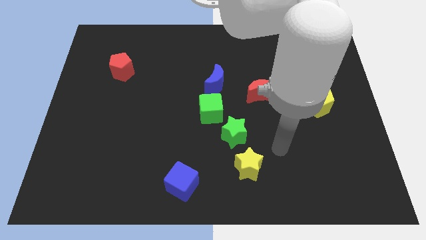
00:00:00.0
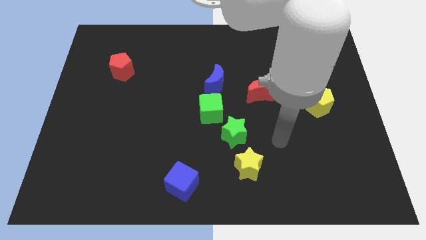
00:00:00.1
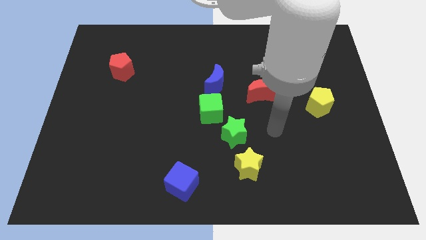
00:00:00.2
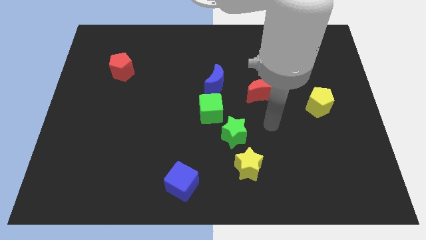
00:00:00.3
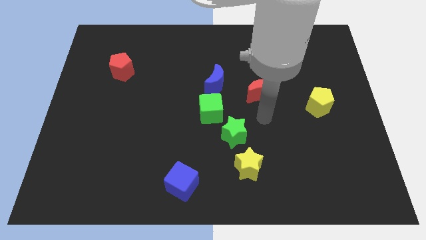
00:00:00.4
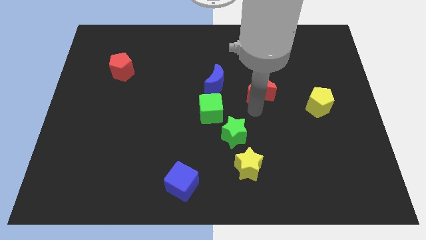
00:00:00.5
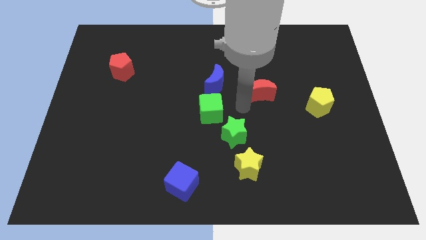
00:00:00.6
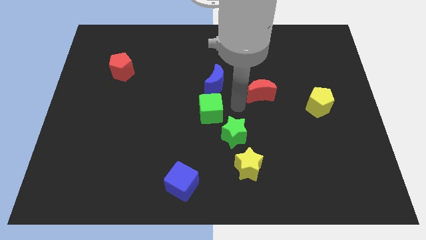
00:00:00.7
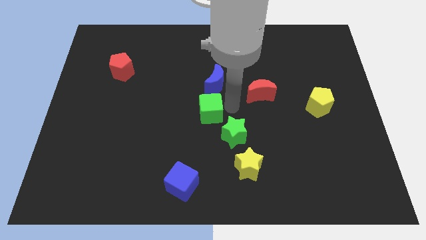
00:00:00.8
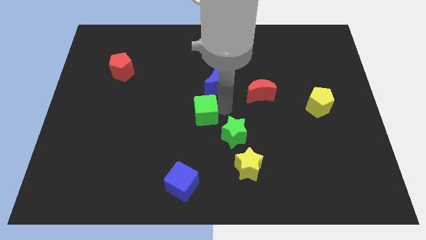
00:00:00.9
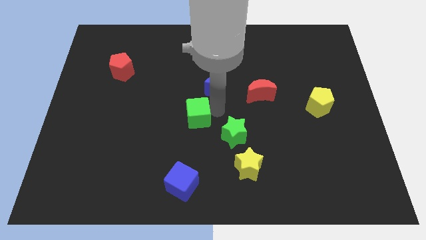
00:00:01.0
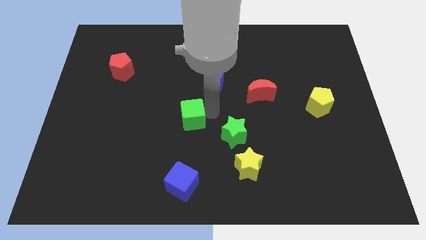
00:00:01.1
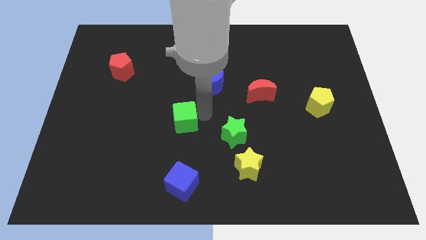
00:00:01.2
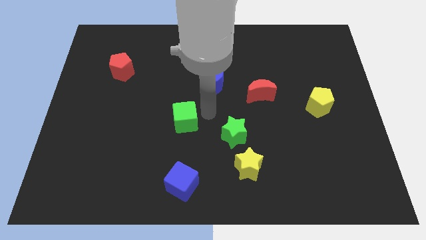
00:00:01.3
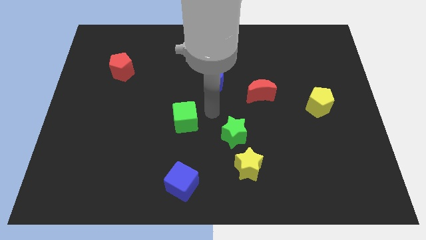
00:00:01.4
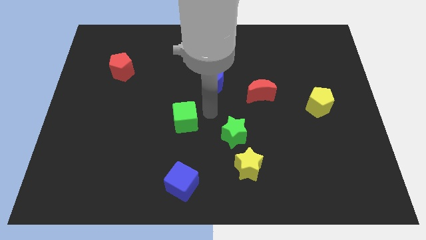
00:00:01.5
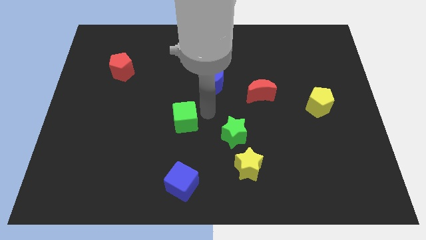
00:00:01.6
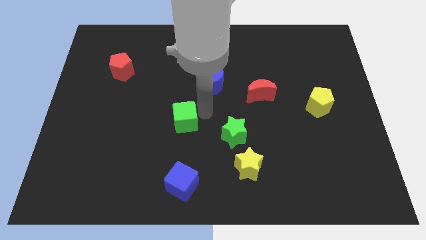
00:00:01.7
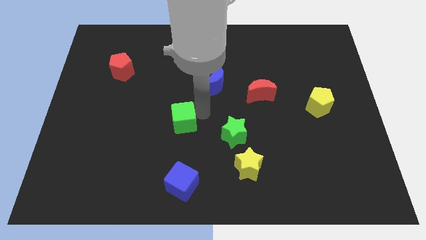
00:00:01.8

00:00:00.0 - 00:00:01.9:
move the green cube away from the green star and blue moon

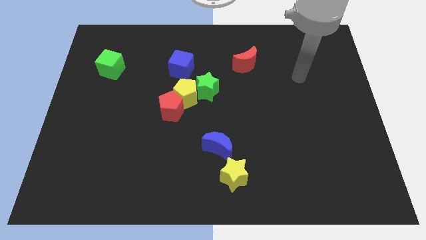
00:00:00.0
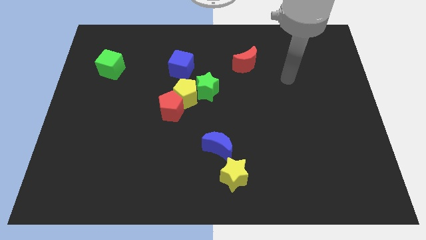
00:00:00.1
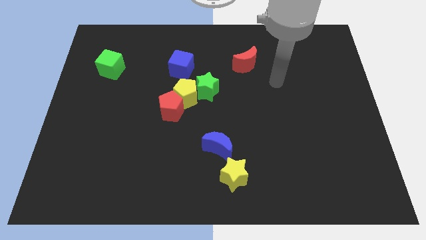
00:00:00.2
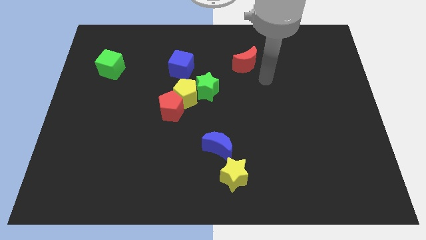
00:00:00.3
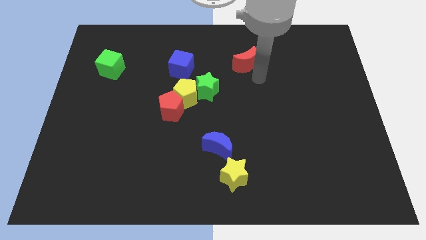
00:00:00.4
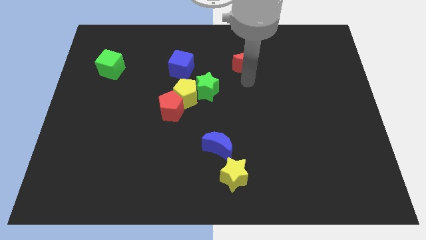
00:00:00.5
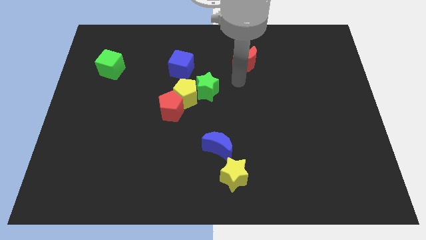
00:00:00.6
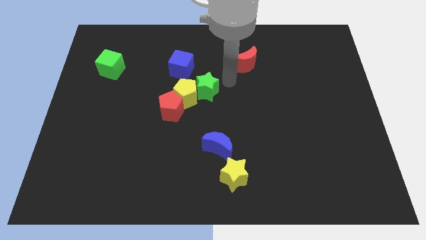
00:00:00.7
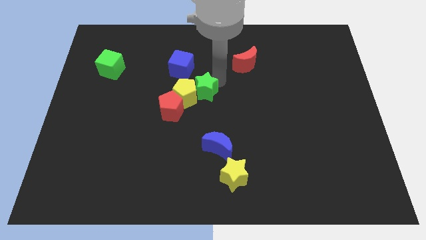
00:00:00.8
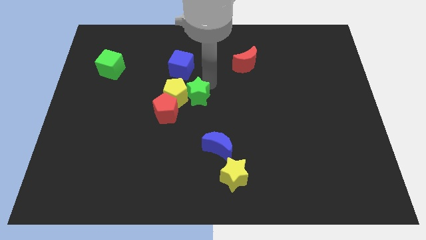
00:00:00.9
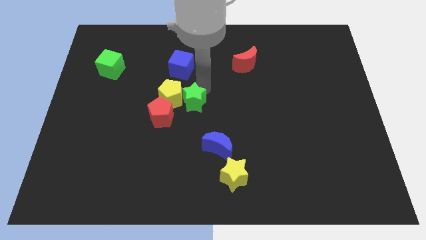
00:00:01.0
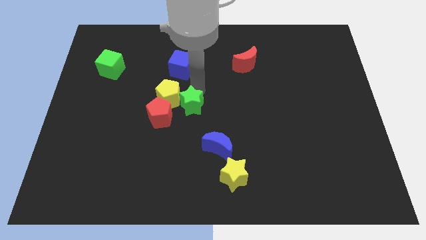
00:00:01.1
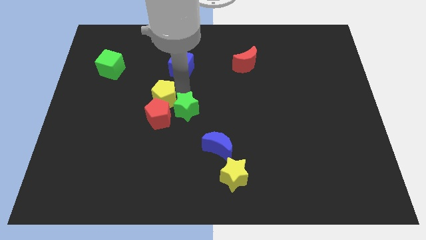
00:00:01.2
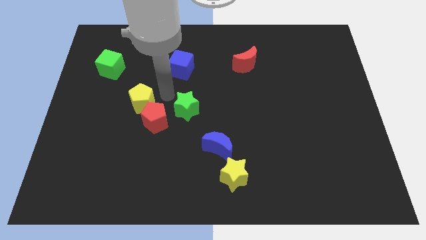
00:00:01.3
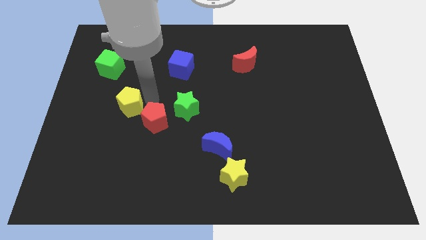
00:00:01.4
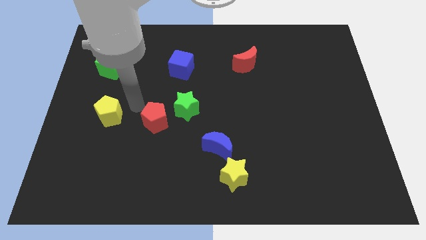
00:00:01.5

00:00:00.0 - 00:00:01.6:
separate the red pentagon from the yellow pentagon

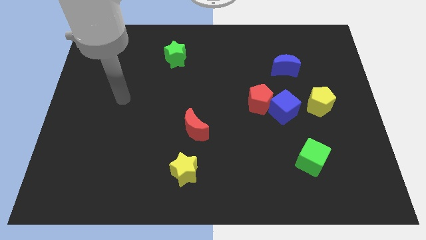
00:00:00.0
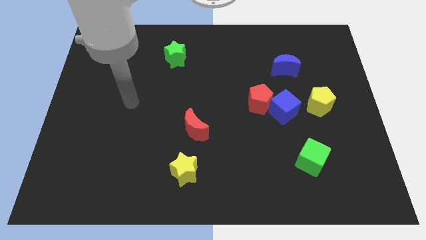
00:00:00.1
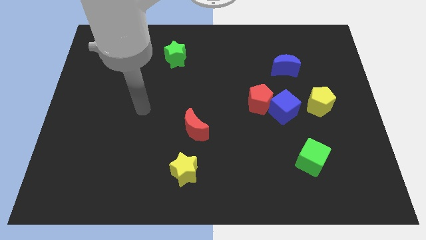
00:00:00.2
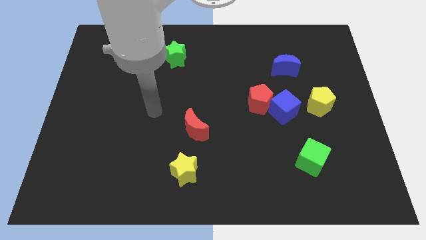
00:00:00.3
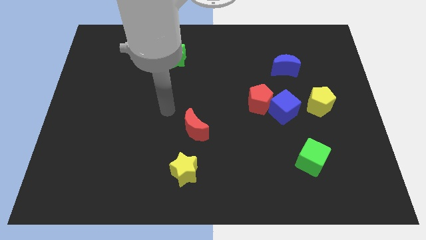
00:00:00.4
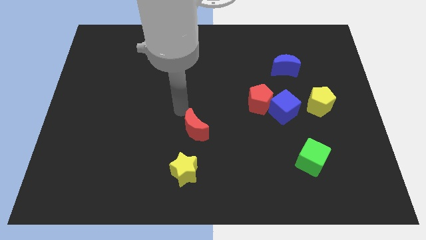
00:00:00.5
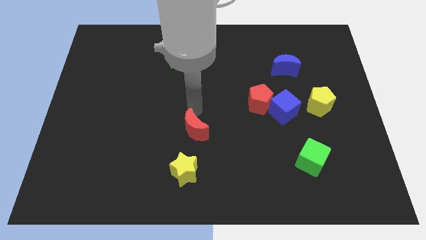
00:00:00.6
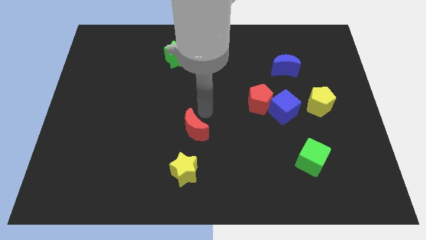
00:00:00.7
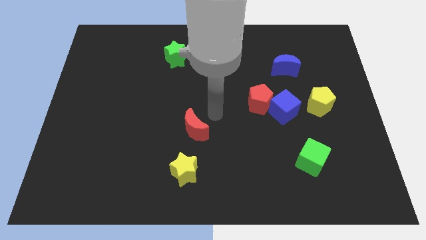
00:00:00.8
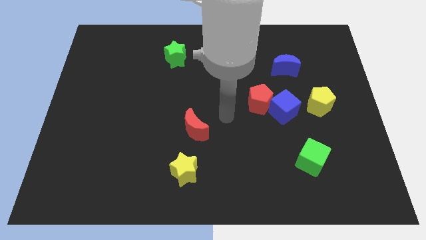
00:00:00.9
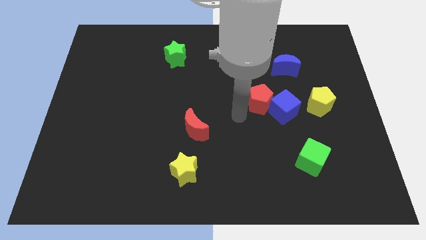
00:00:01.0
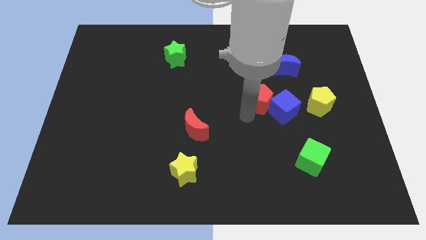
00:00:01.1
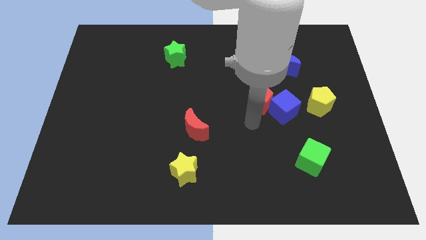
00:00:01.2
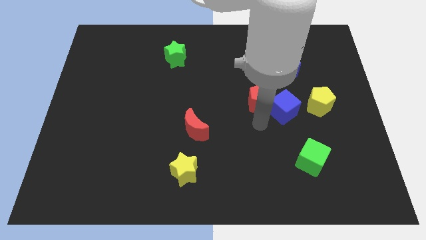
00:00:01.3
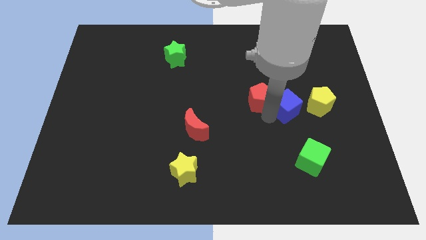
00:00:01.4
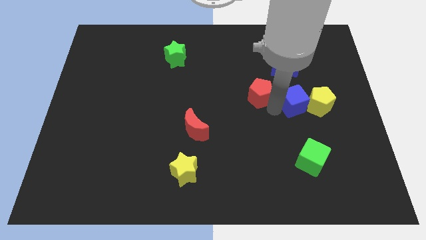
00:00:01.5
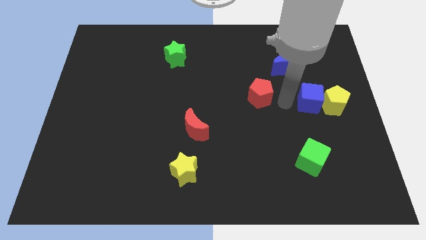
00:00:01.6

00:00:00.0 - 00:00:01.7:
separate the red pentagon from the blue cube

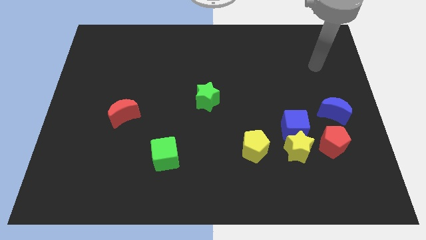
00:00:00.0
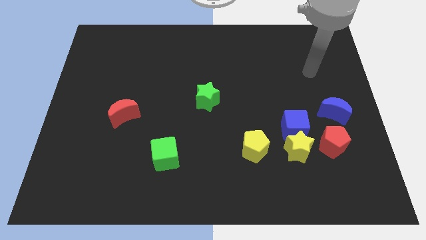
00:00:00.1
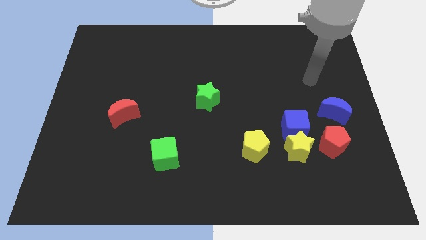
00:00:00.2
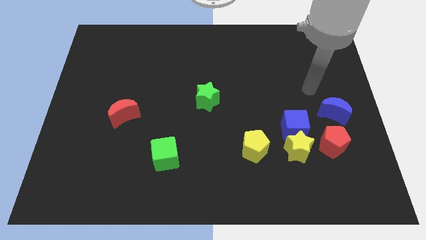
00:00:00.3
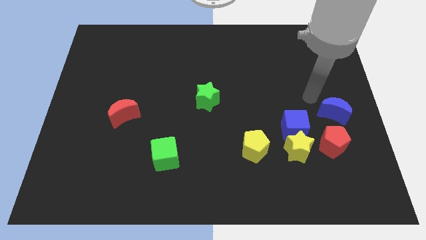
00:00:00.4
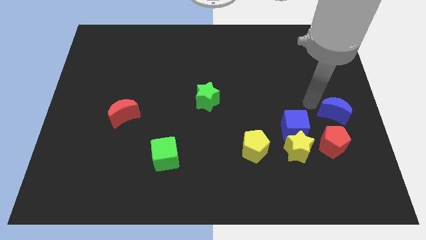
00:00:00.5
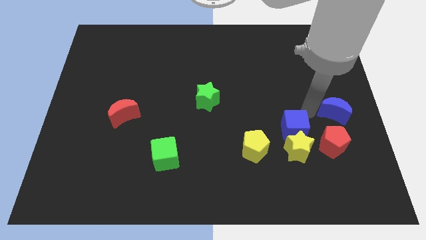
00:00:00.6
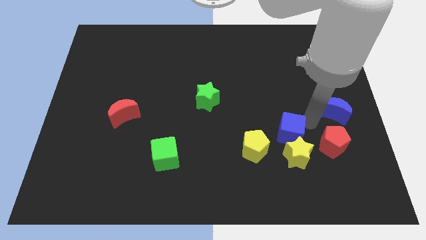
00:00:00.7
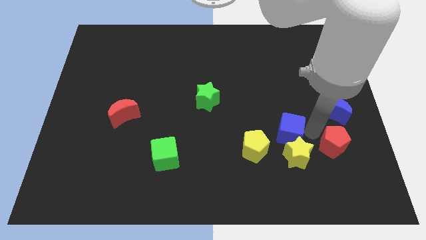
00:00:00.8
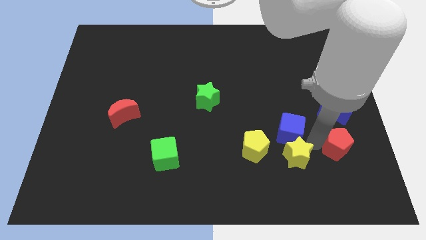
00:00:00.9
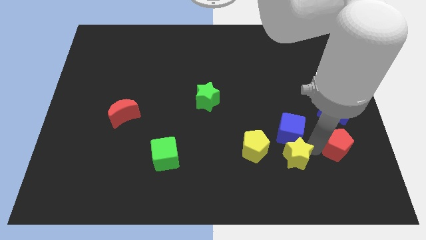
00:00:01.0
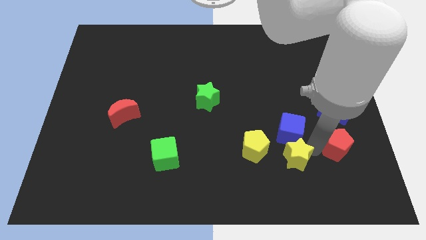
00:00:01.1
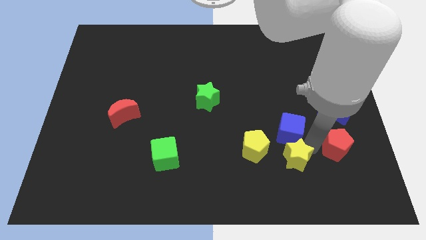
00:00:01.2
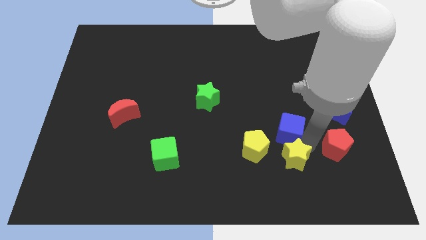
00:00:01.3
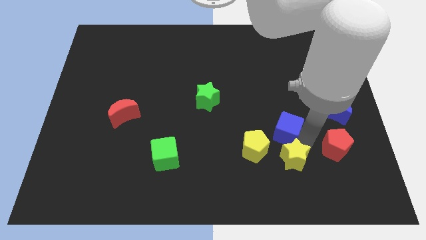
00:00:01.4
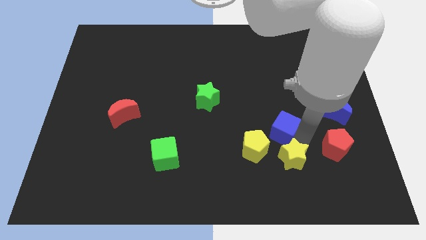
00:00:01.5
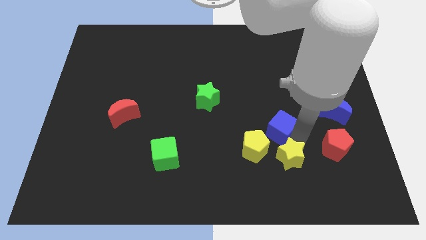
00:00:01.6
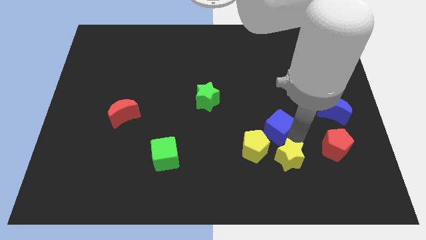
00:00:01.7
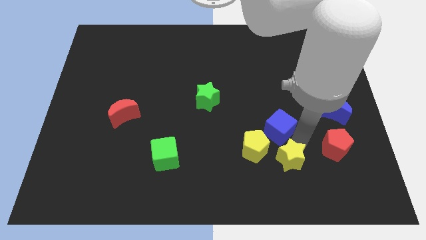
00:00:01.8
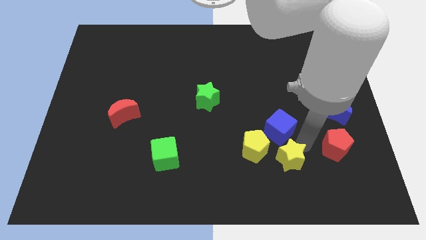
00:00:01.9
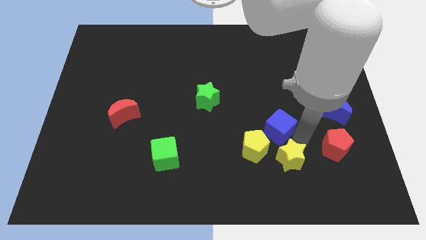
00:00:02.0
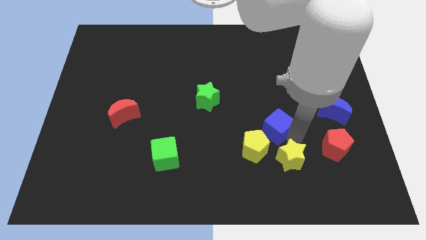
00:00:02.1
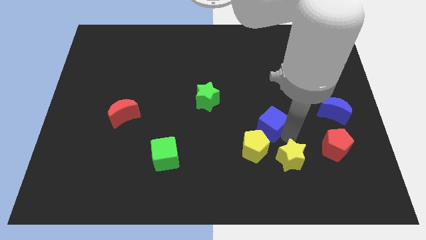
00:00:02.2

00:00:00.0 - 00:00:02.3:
move the blue cube away from the yellow star and red pentagon

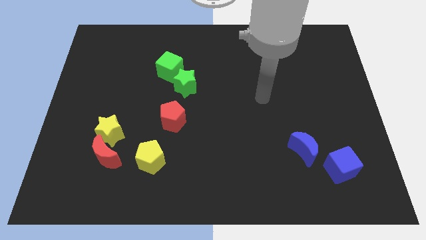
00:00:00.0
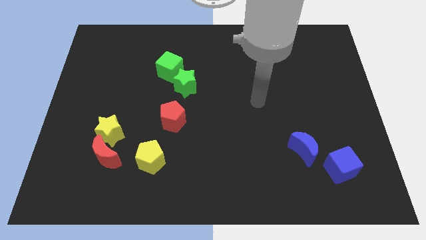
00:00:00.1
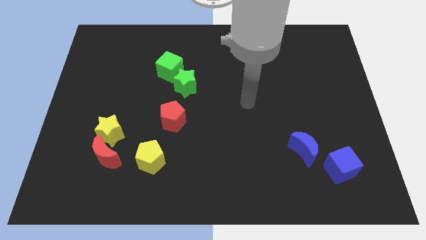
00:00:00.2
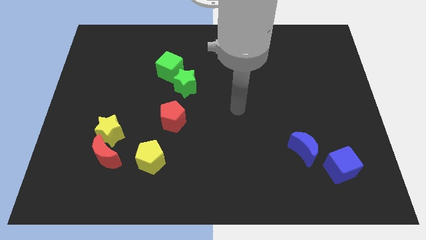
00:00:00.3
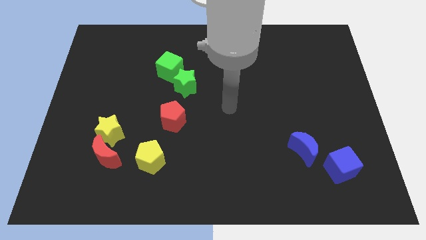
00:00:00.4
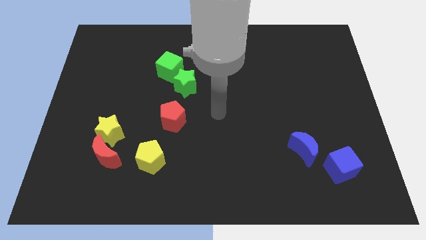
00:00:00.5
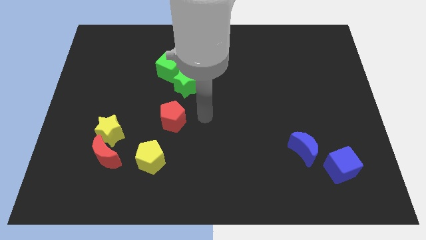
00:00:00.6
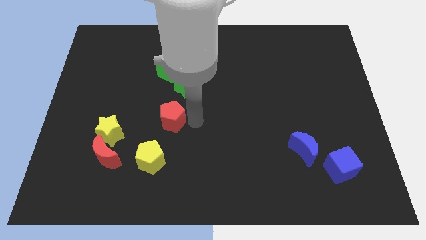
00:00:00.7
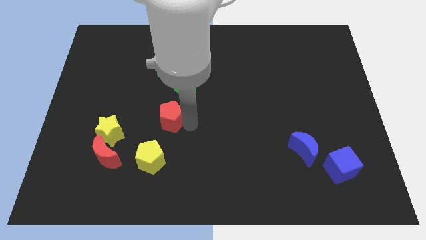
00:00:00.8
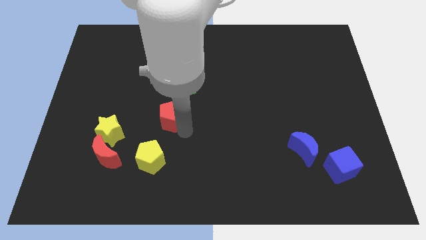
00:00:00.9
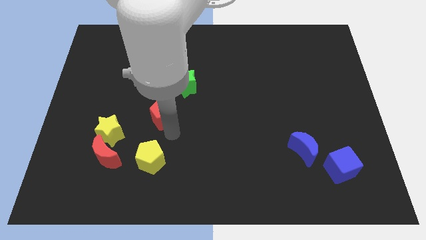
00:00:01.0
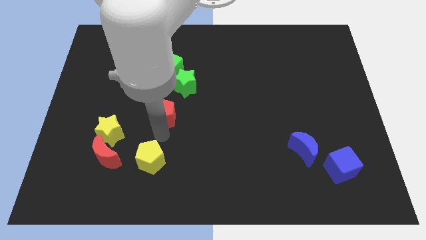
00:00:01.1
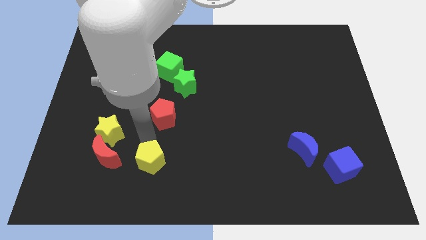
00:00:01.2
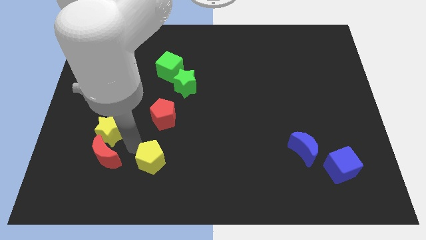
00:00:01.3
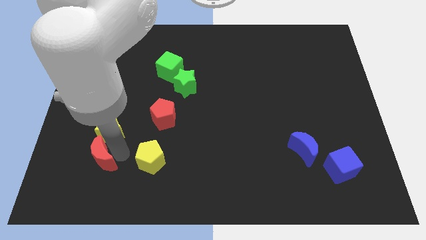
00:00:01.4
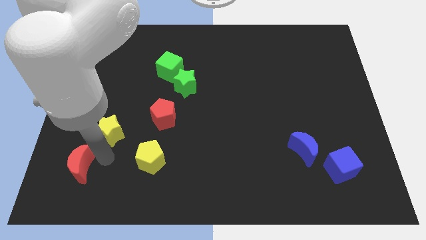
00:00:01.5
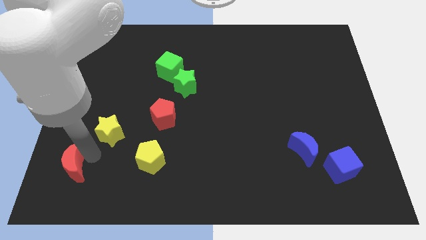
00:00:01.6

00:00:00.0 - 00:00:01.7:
move the yellow star away from the red moon
